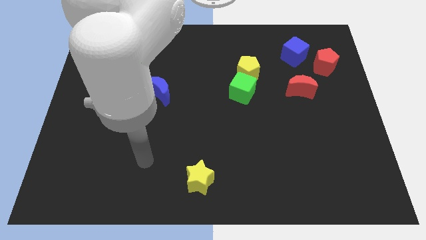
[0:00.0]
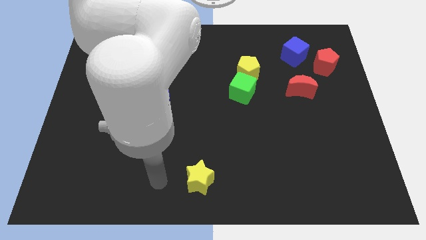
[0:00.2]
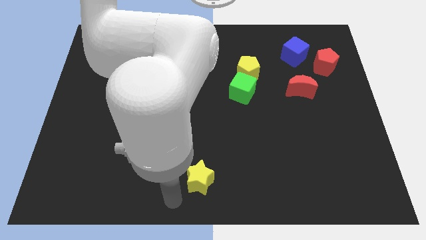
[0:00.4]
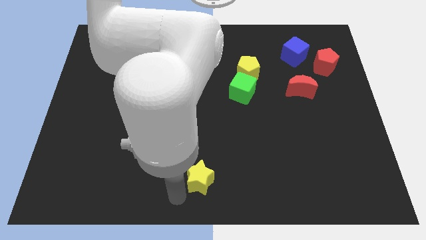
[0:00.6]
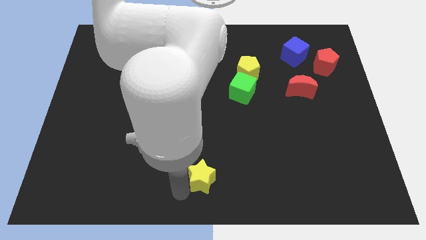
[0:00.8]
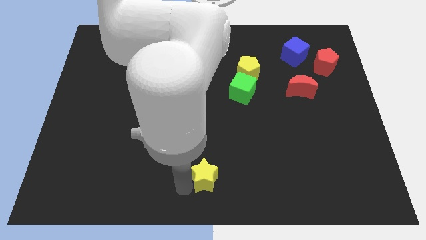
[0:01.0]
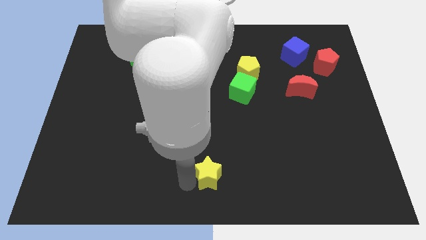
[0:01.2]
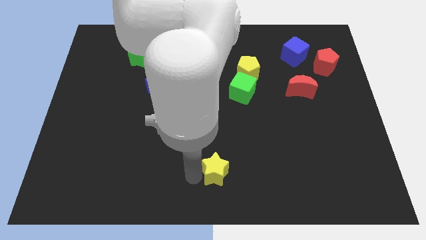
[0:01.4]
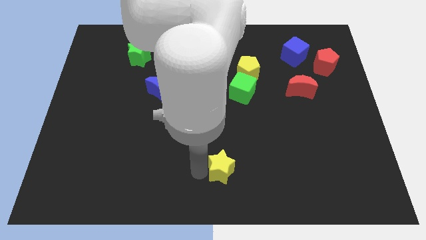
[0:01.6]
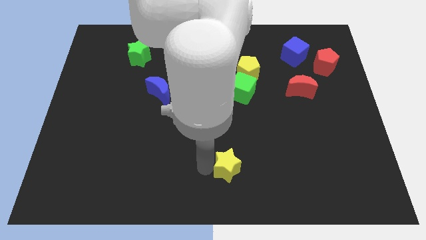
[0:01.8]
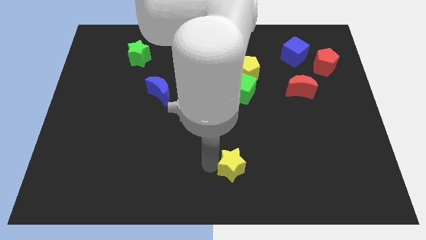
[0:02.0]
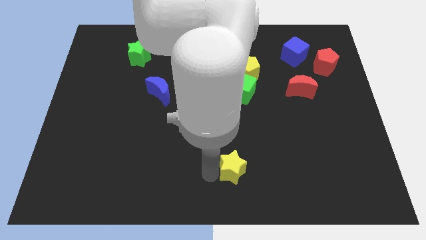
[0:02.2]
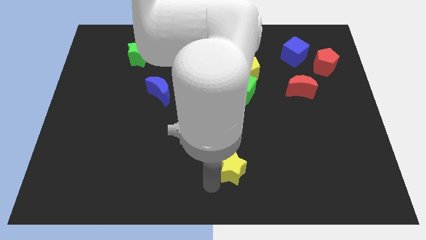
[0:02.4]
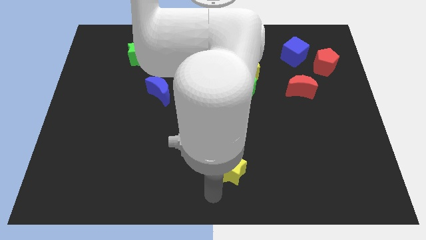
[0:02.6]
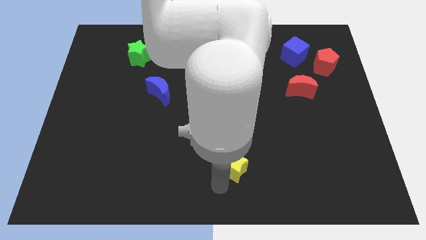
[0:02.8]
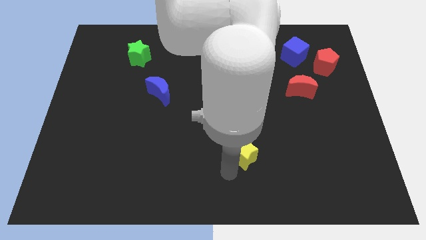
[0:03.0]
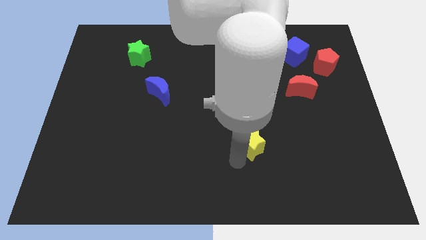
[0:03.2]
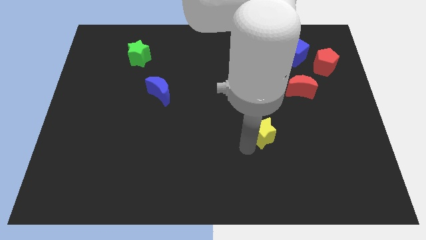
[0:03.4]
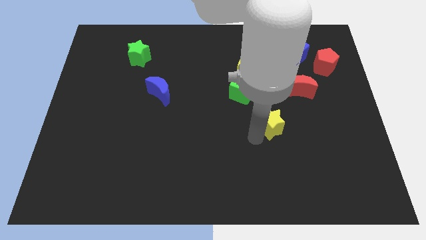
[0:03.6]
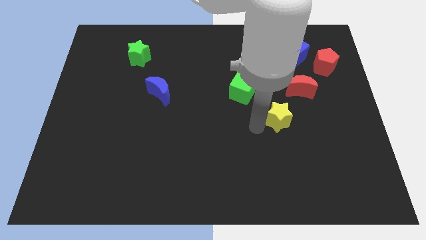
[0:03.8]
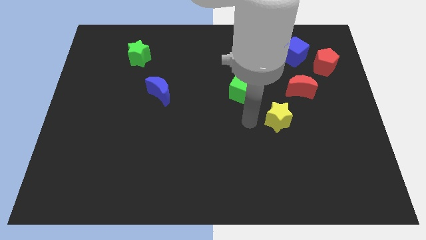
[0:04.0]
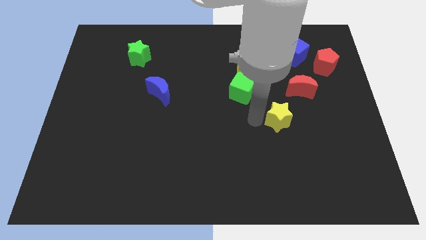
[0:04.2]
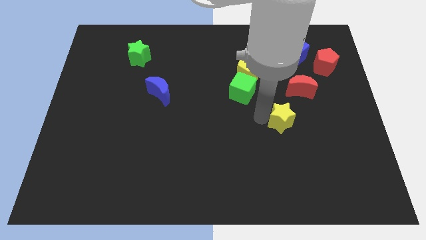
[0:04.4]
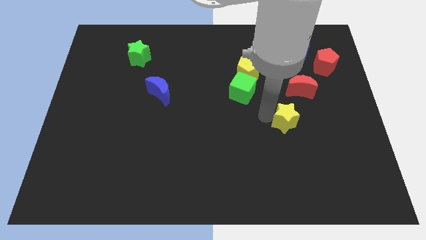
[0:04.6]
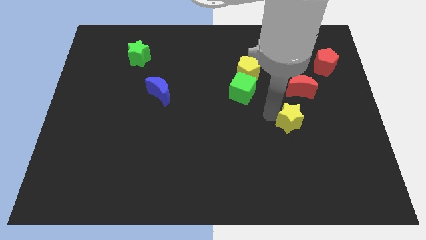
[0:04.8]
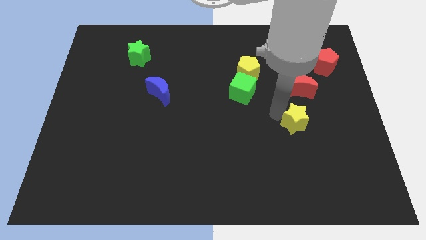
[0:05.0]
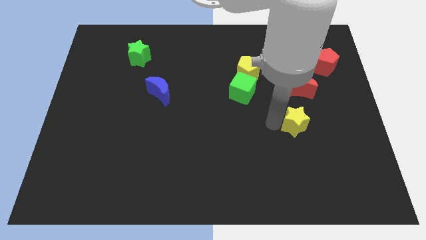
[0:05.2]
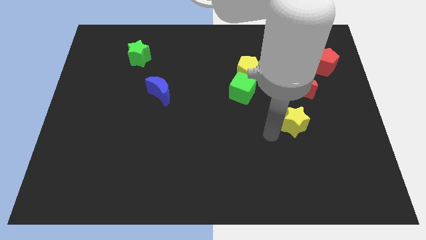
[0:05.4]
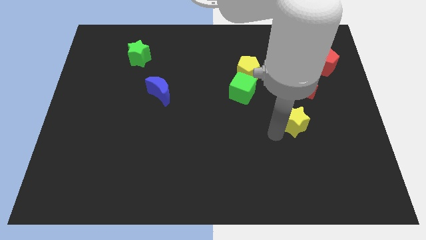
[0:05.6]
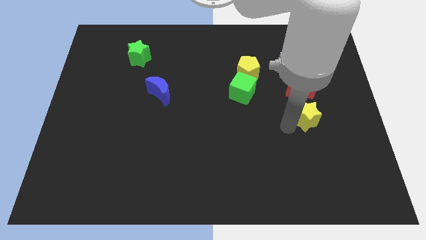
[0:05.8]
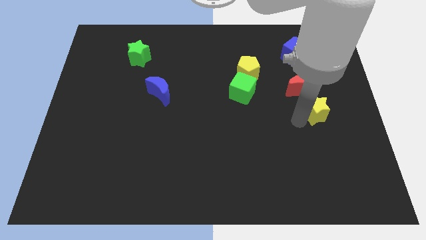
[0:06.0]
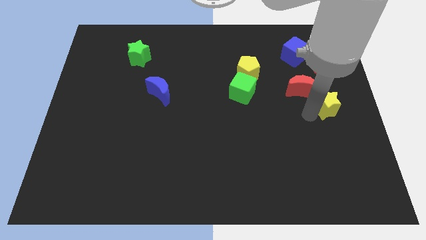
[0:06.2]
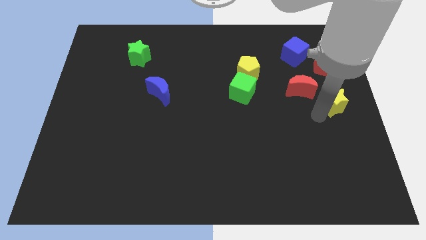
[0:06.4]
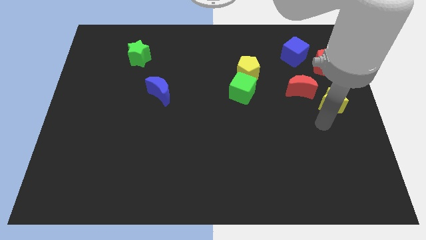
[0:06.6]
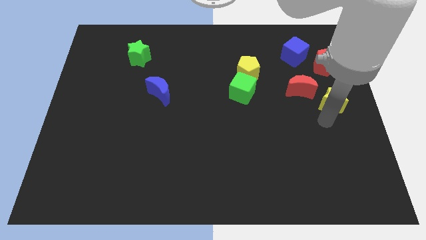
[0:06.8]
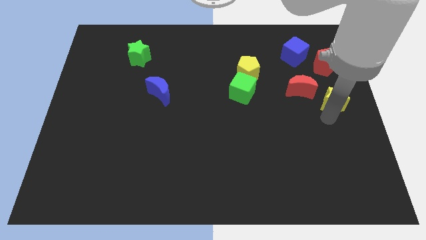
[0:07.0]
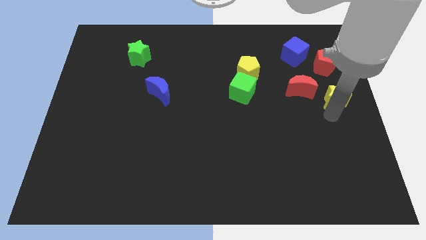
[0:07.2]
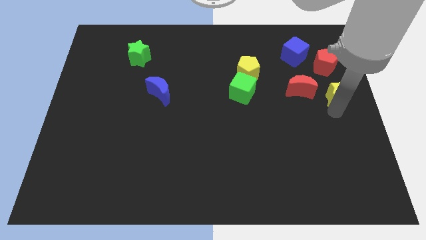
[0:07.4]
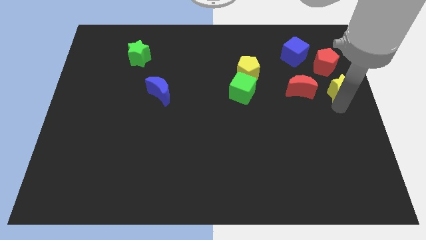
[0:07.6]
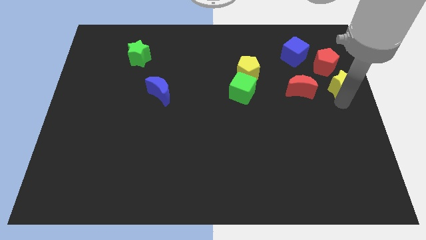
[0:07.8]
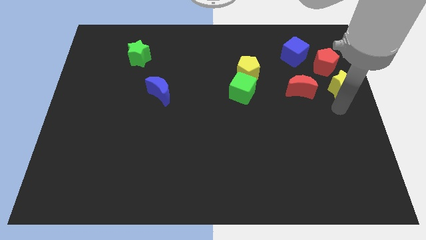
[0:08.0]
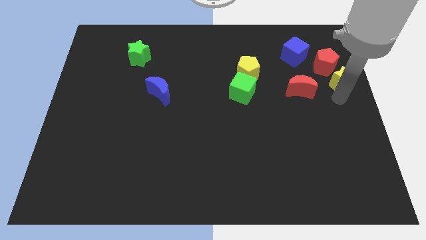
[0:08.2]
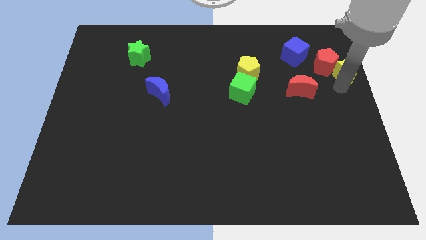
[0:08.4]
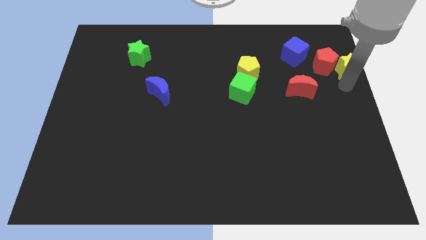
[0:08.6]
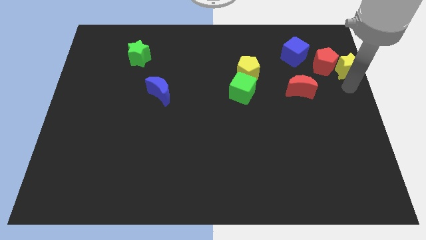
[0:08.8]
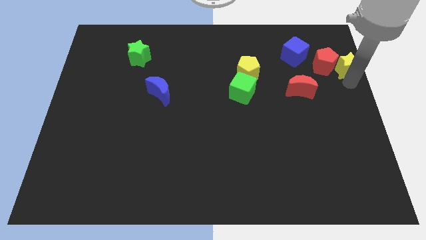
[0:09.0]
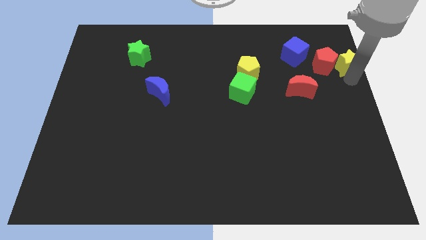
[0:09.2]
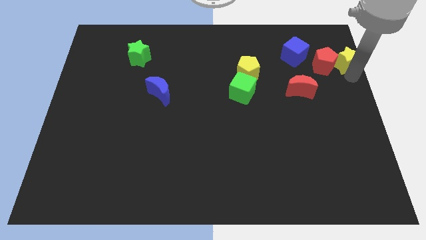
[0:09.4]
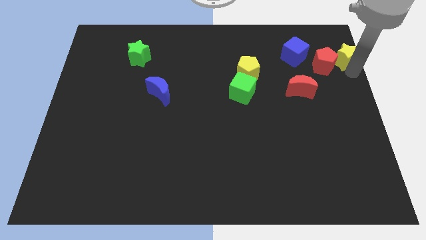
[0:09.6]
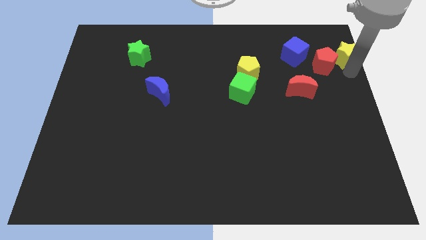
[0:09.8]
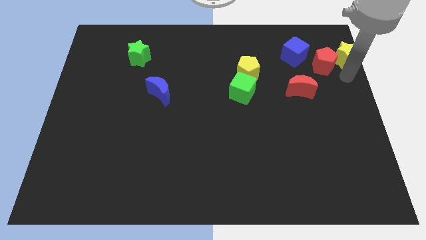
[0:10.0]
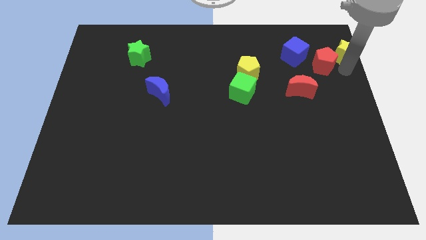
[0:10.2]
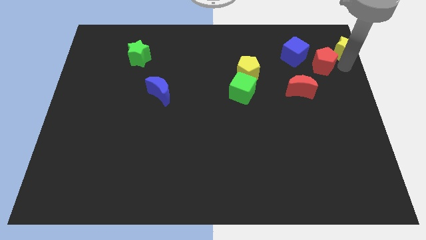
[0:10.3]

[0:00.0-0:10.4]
put the yellow star to the top right

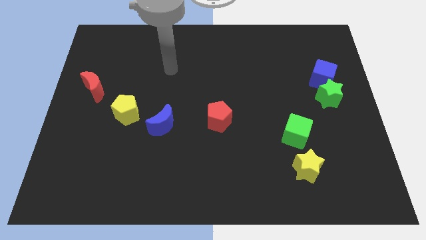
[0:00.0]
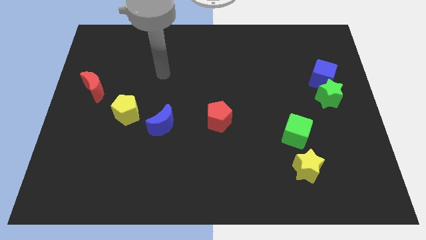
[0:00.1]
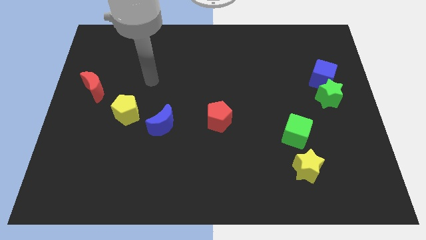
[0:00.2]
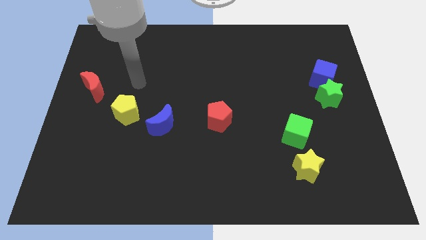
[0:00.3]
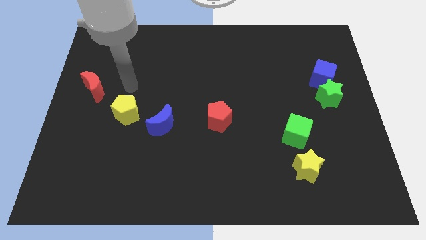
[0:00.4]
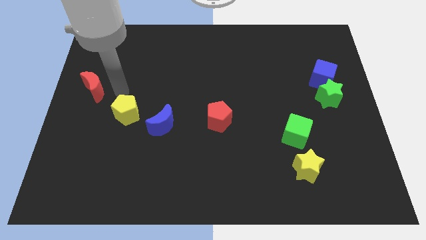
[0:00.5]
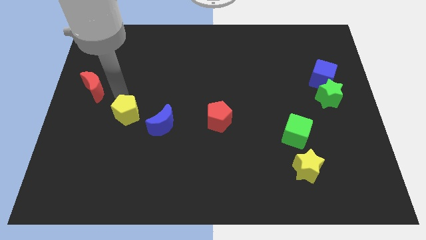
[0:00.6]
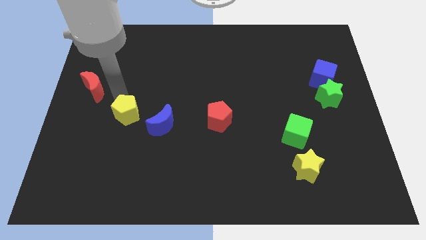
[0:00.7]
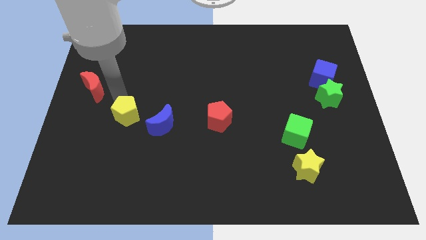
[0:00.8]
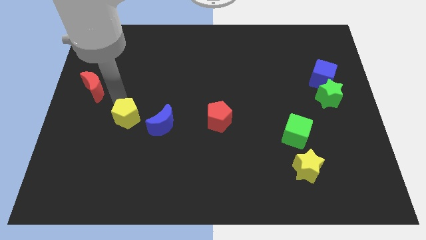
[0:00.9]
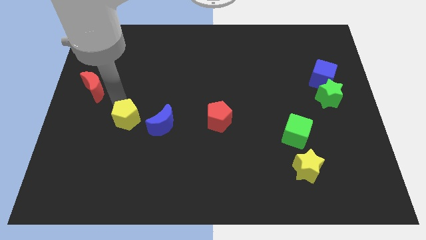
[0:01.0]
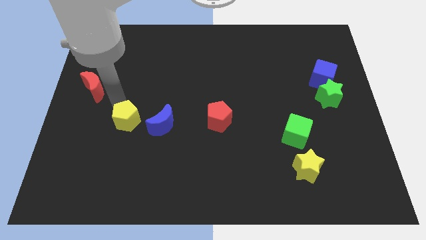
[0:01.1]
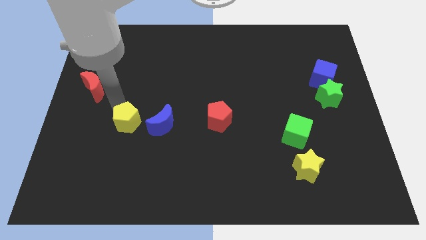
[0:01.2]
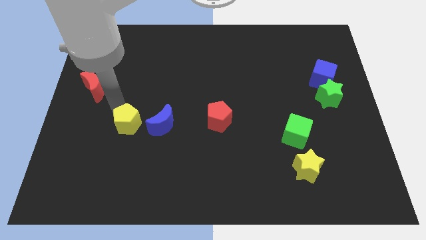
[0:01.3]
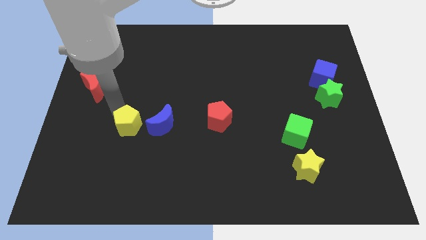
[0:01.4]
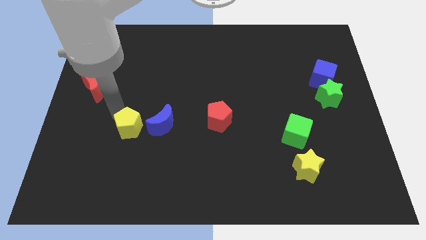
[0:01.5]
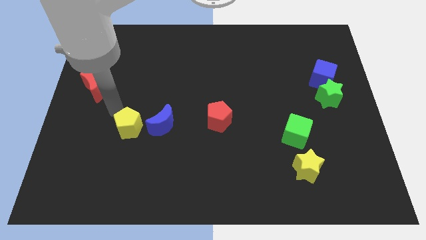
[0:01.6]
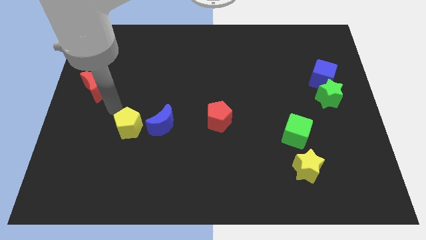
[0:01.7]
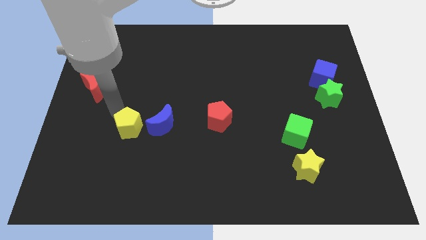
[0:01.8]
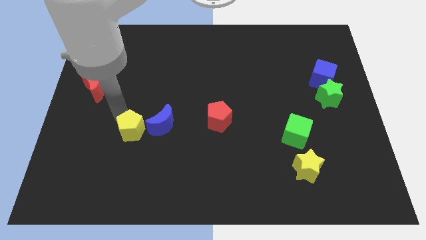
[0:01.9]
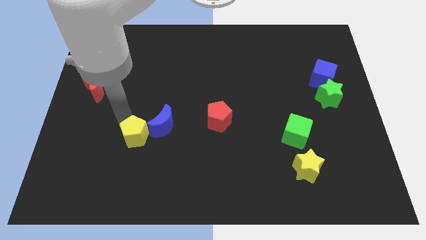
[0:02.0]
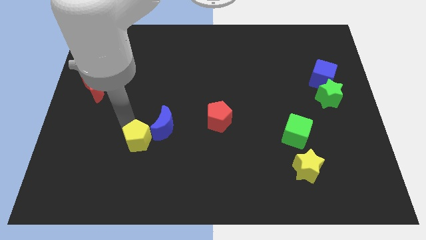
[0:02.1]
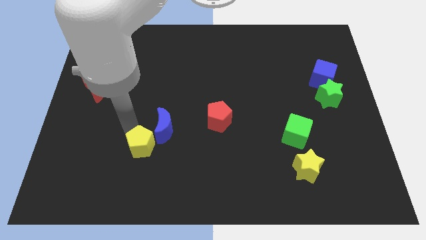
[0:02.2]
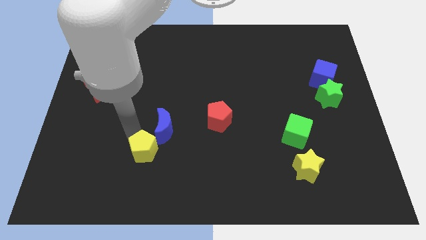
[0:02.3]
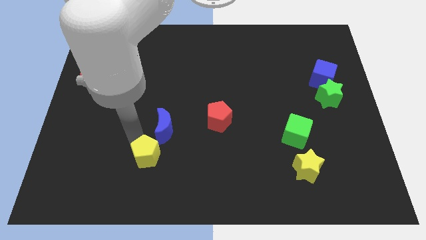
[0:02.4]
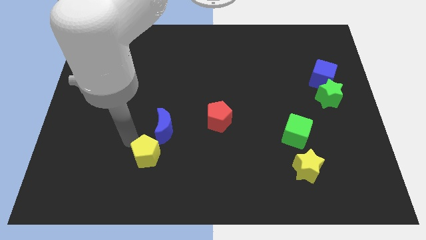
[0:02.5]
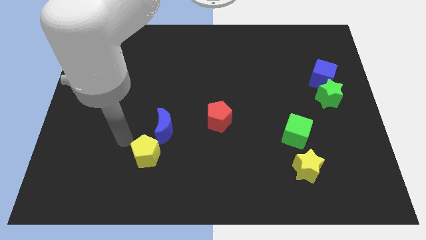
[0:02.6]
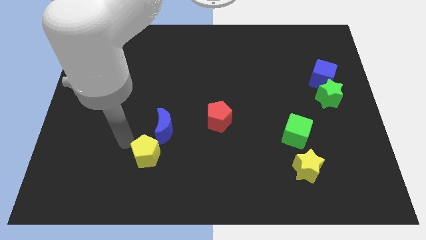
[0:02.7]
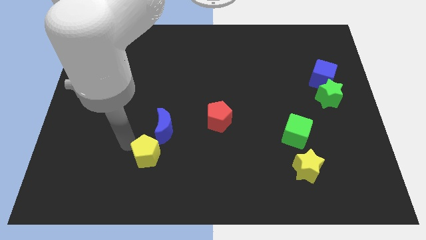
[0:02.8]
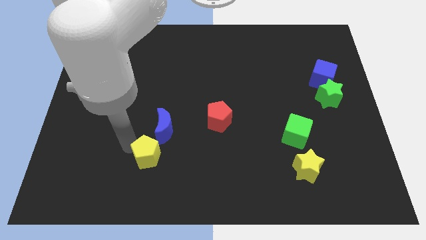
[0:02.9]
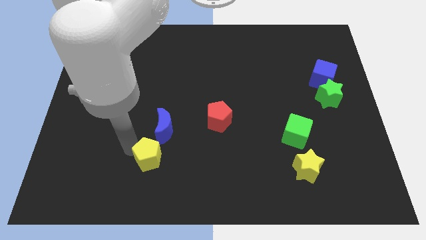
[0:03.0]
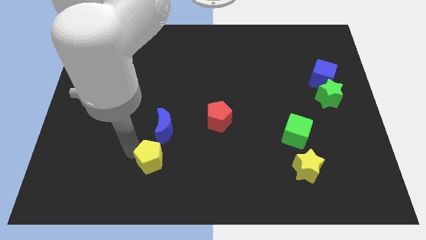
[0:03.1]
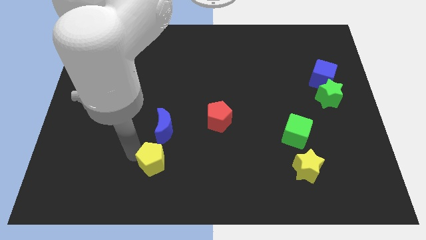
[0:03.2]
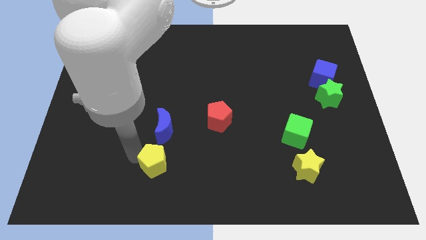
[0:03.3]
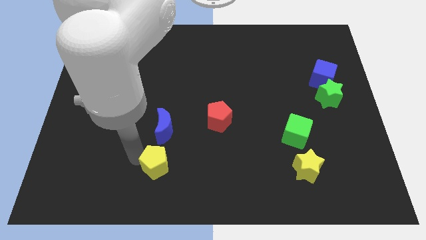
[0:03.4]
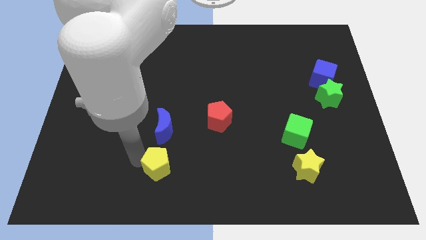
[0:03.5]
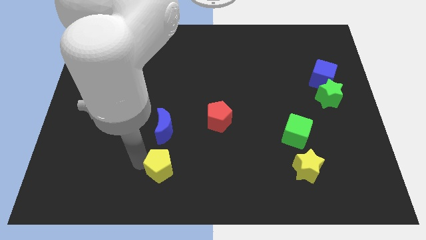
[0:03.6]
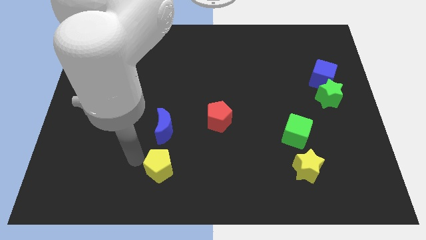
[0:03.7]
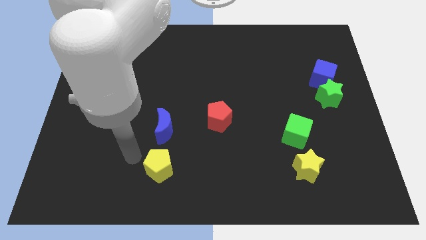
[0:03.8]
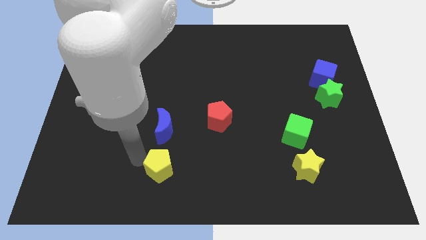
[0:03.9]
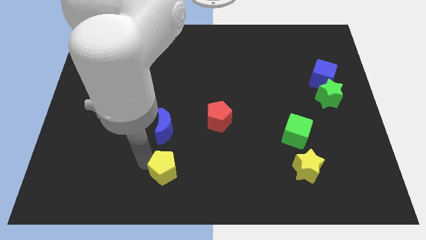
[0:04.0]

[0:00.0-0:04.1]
push the yellow pentagon to the bottom side
